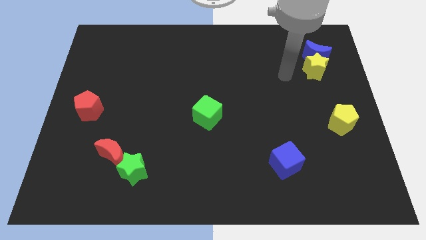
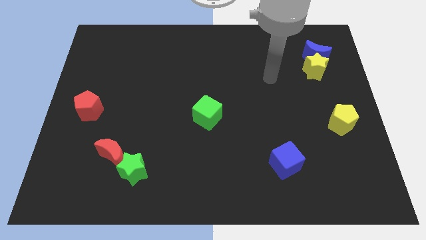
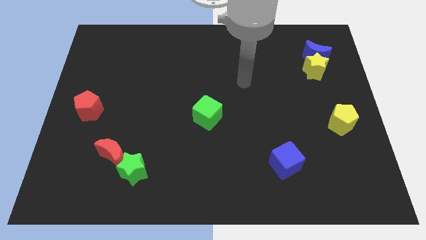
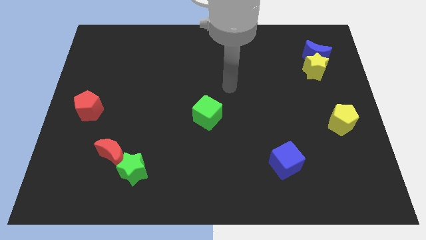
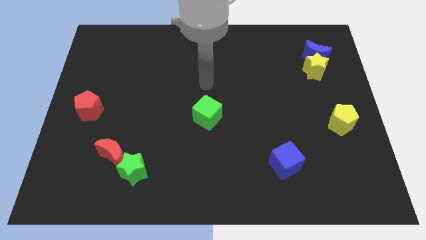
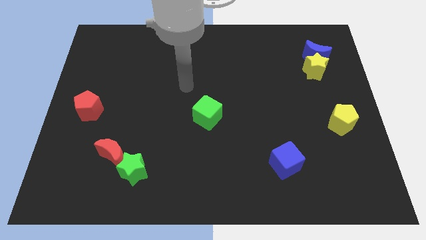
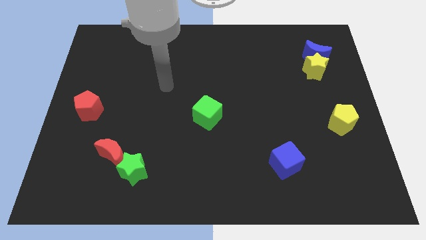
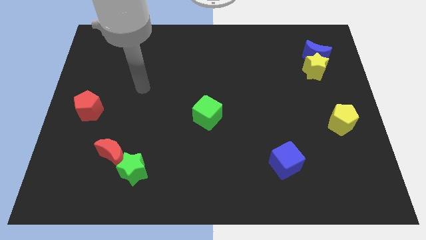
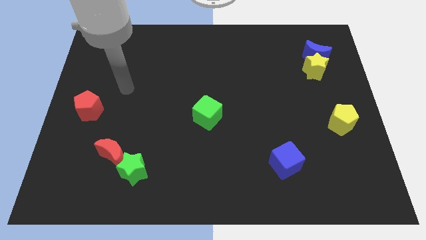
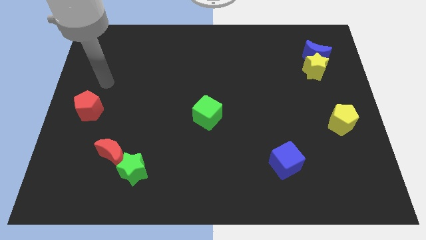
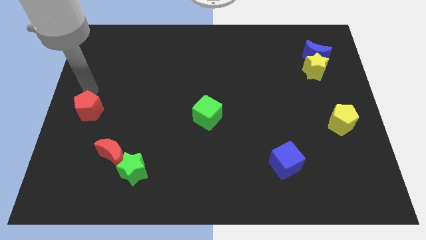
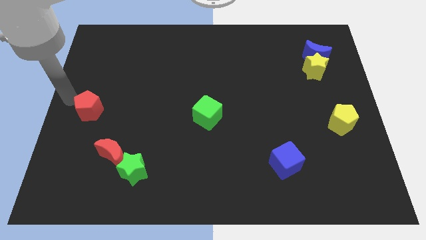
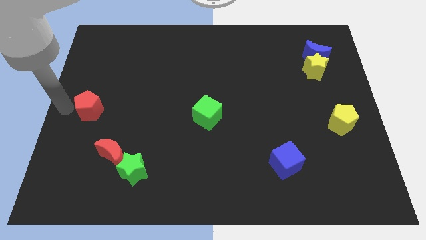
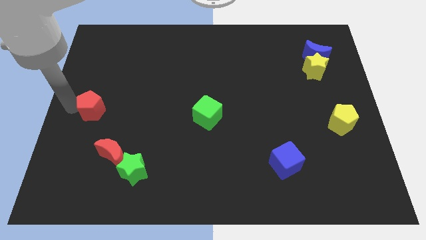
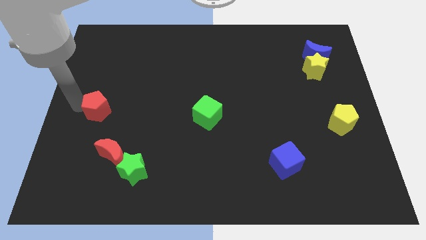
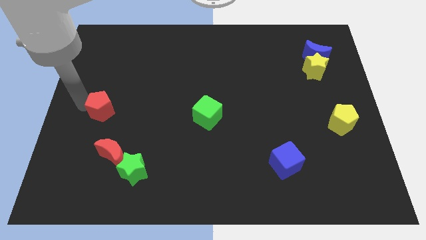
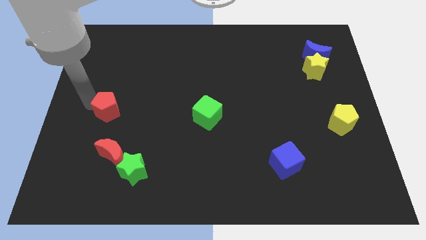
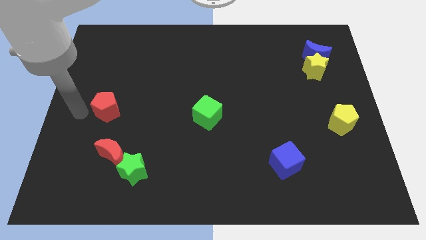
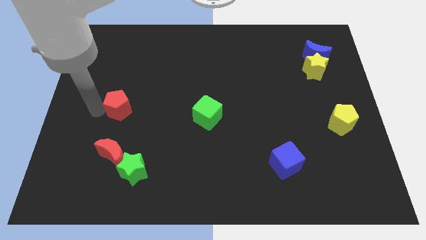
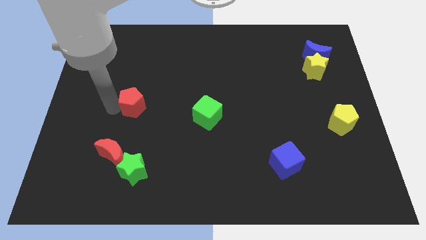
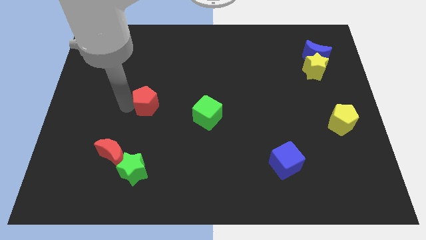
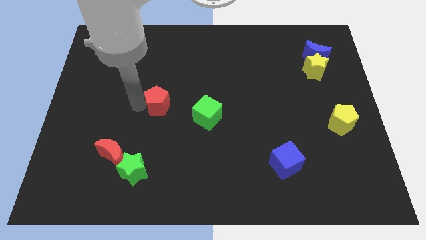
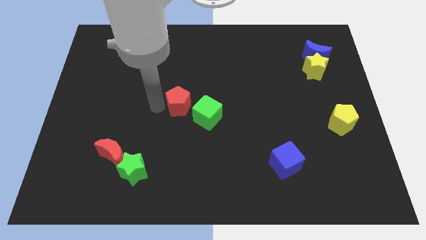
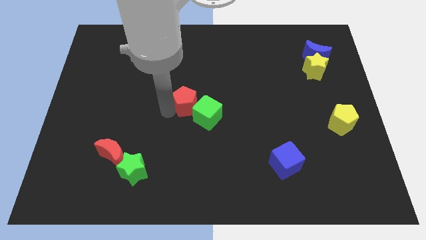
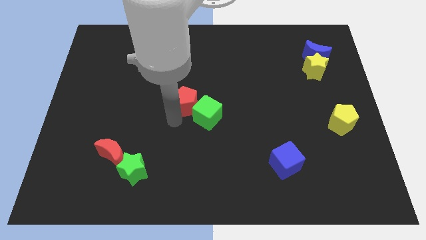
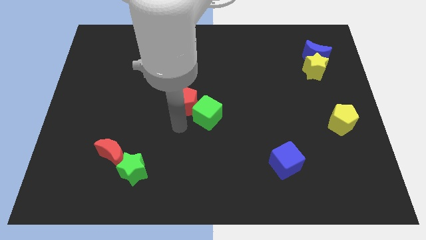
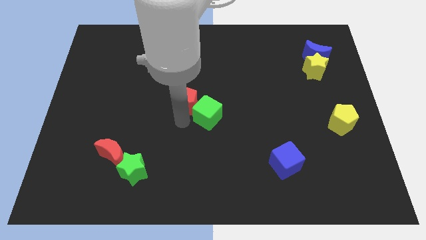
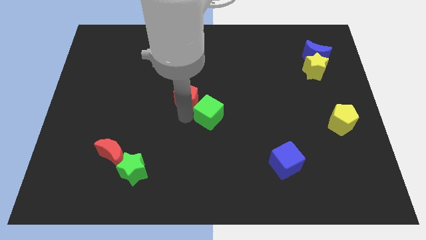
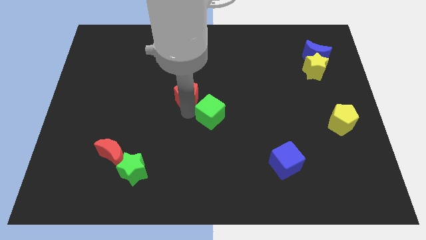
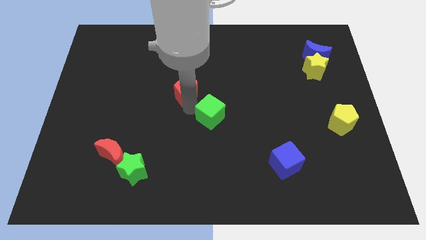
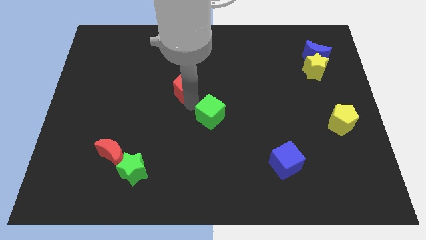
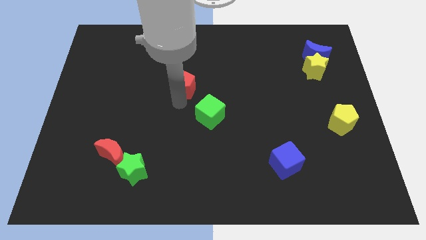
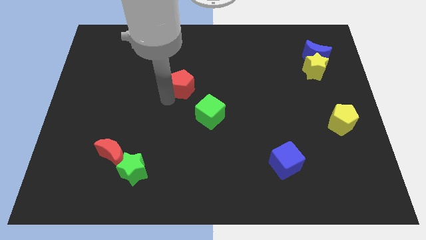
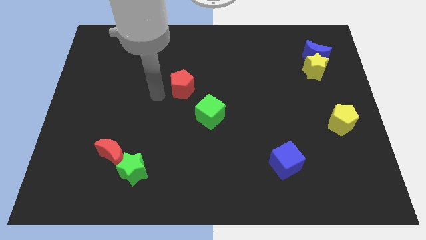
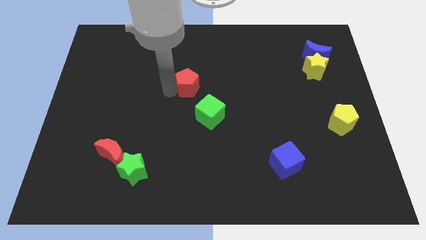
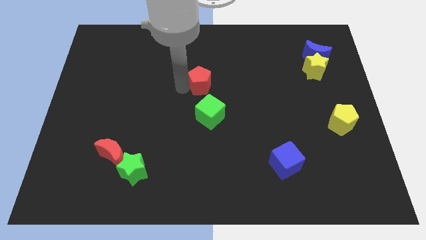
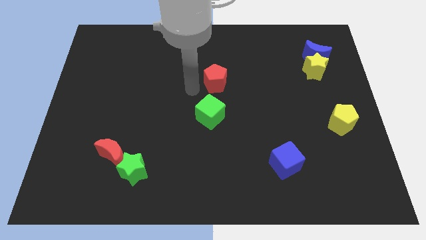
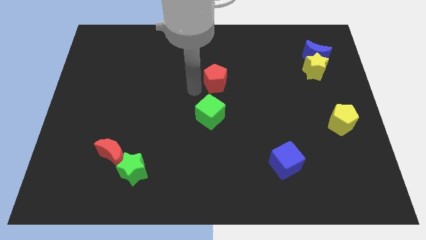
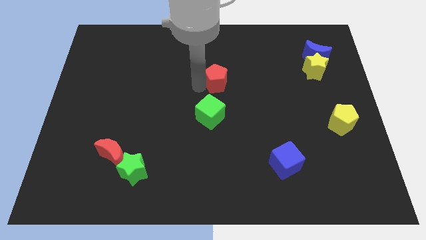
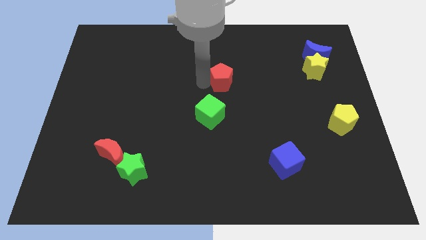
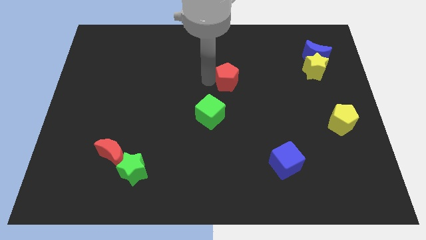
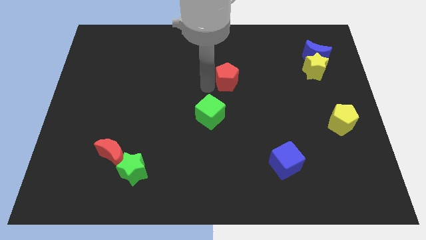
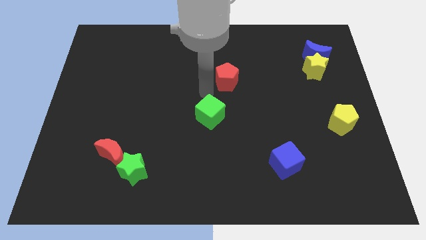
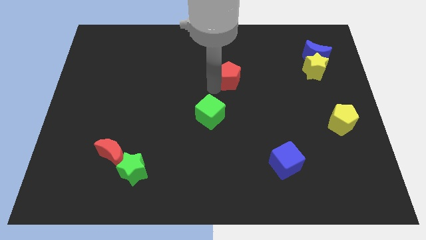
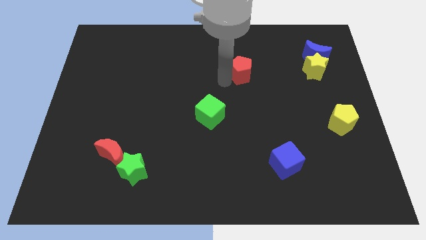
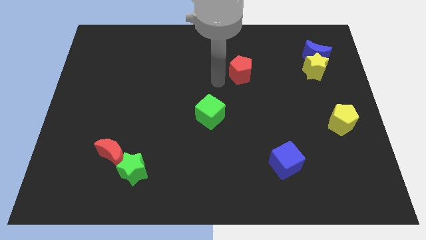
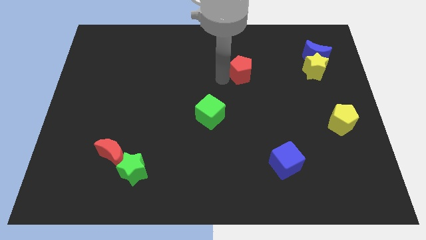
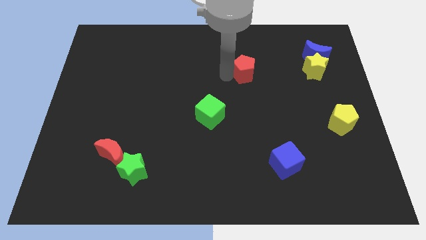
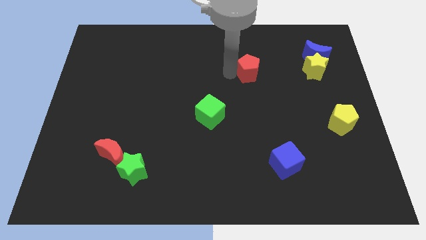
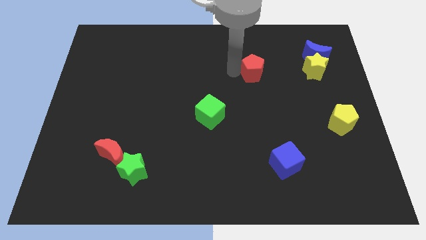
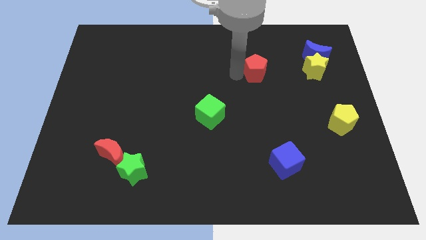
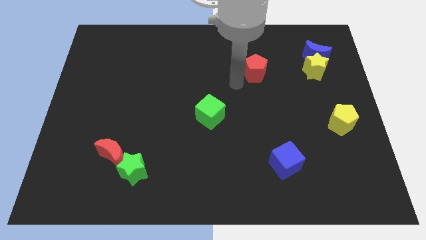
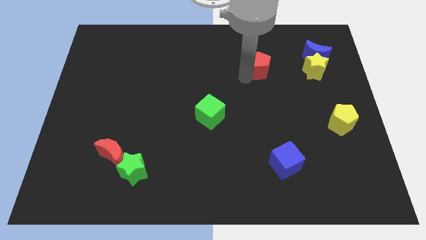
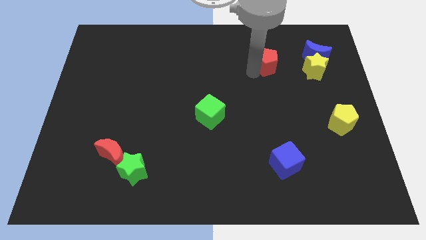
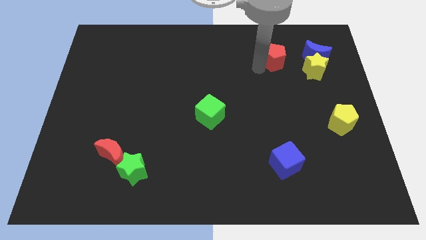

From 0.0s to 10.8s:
push the red pentagon diagonally up and to the left of the yellow star

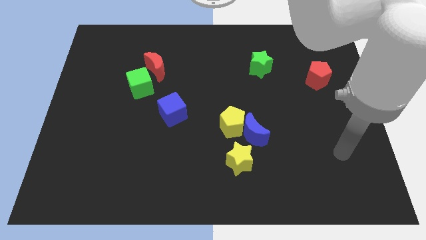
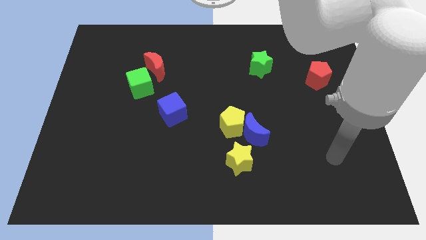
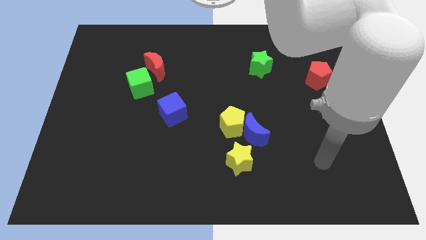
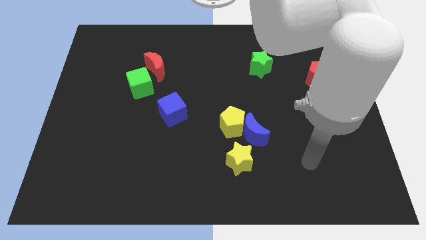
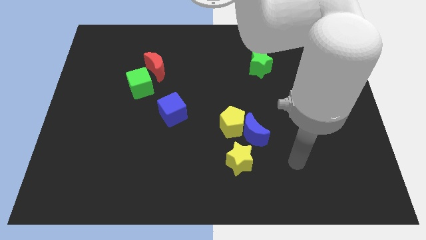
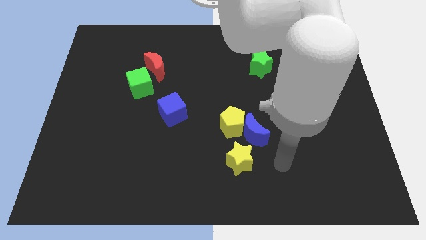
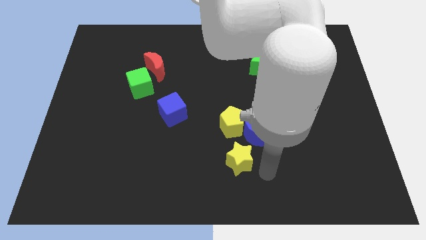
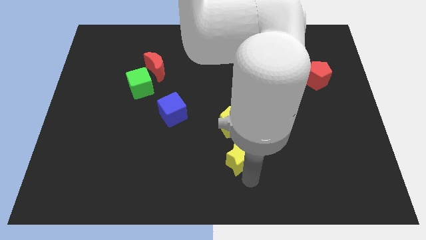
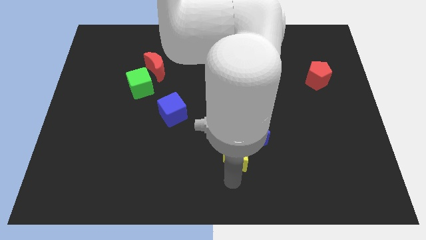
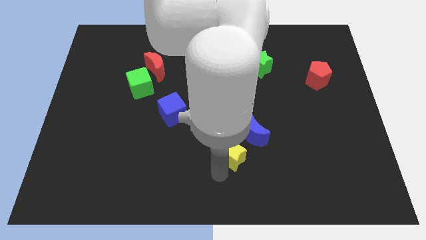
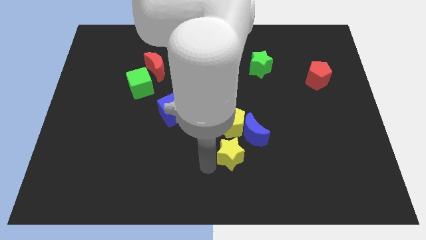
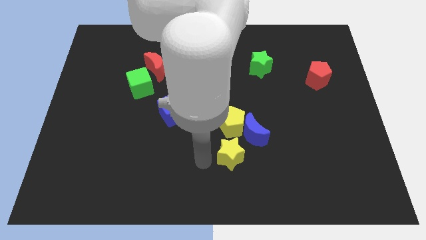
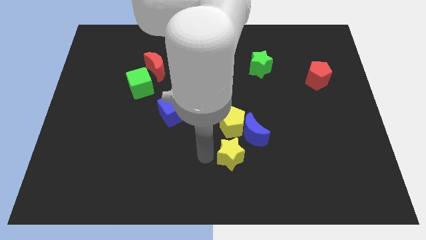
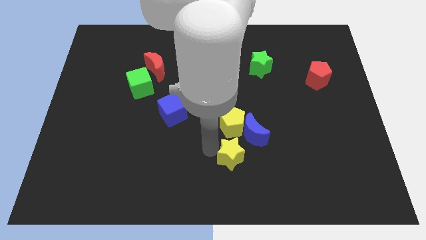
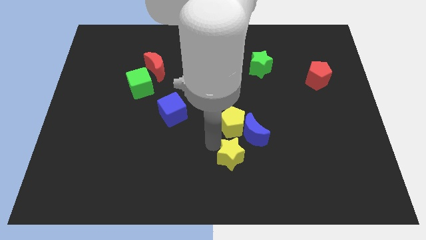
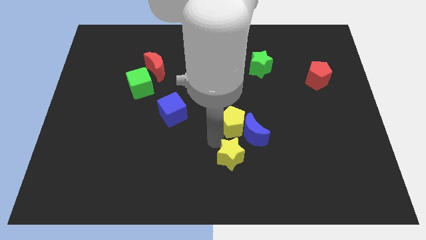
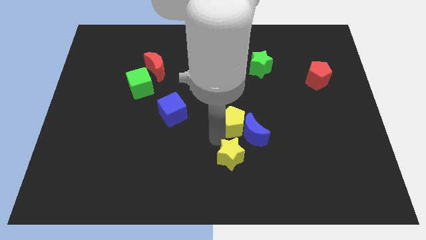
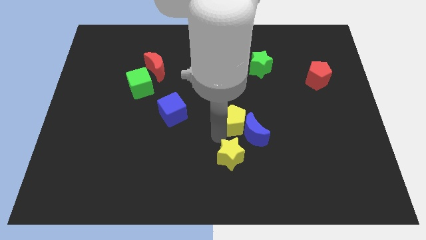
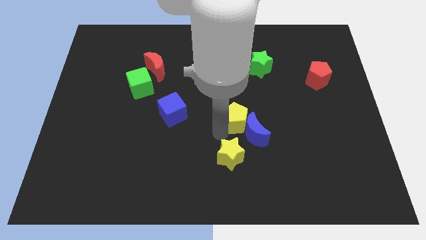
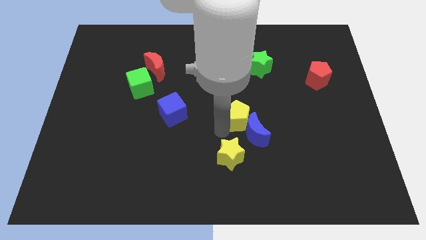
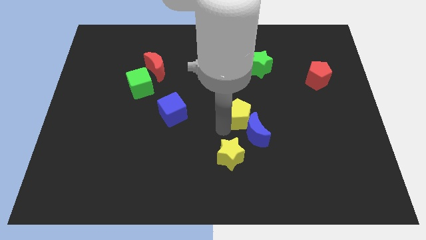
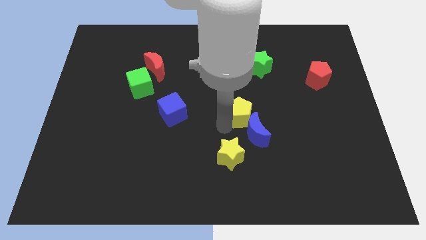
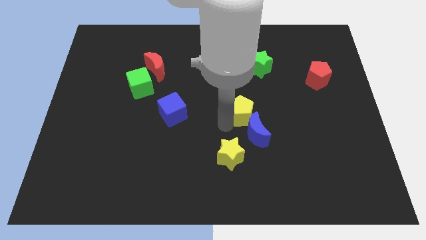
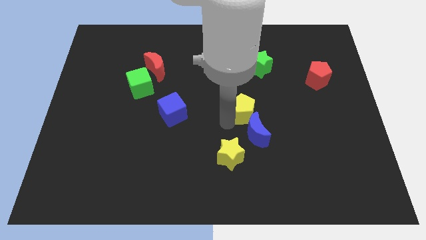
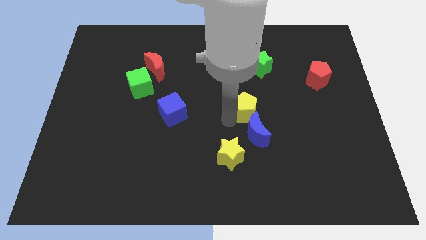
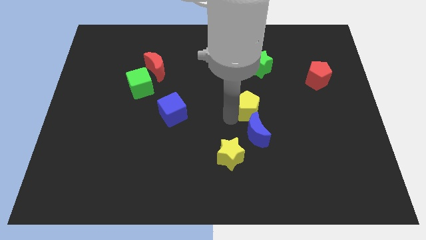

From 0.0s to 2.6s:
push the yellow pentagon to the bottom of the green star
